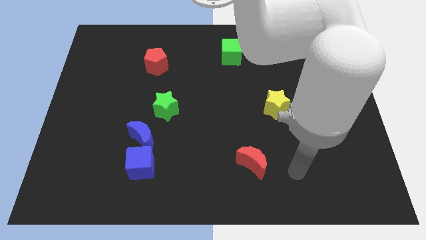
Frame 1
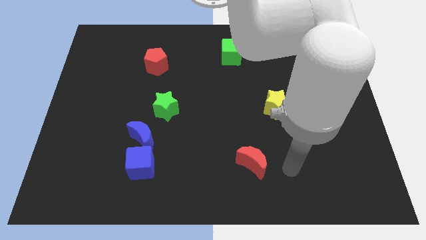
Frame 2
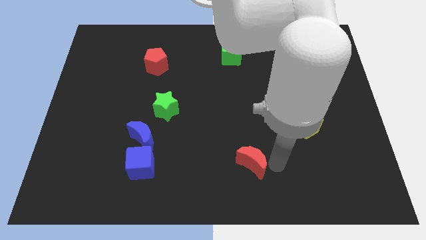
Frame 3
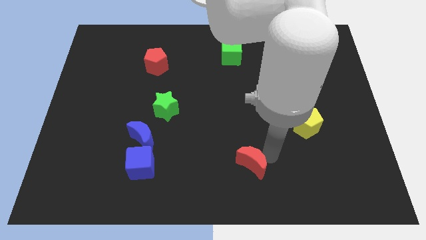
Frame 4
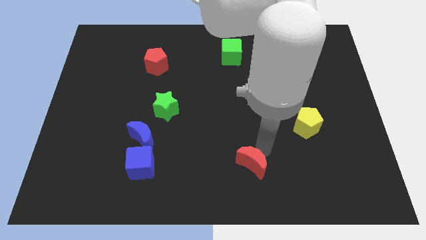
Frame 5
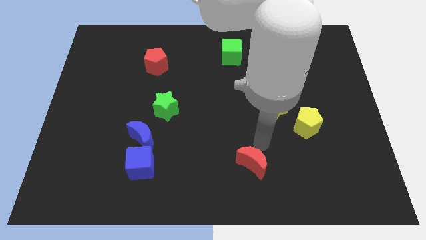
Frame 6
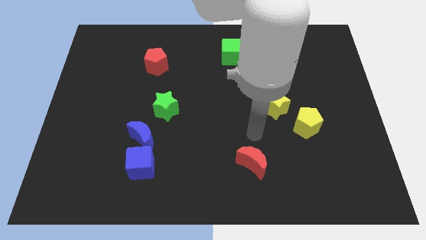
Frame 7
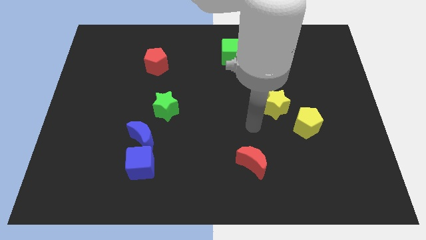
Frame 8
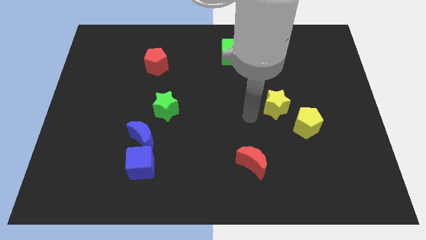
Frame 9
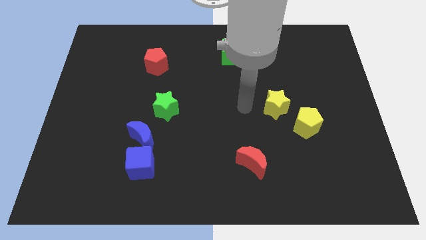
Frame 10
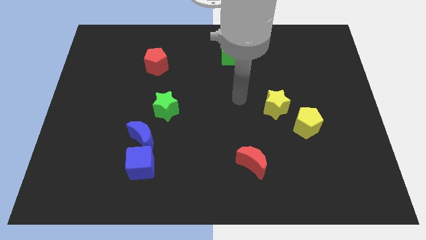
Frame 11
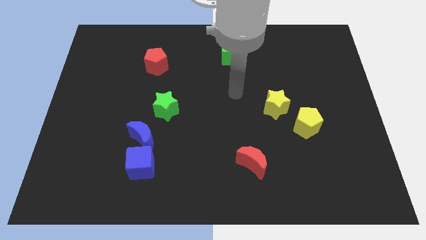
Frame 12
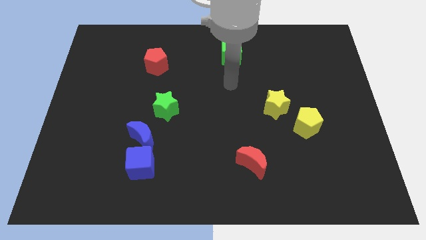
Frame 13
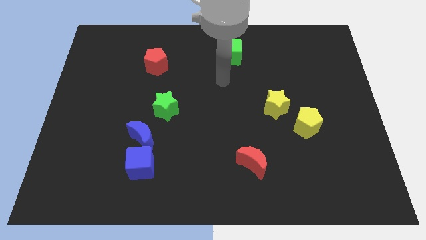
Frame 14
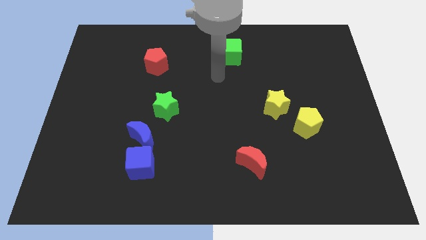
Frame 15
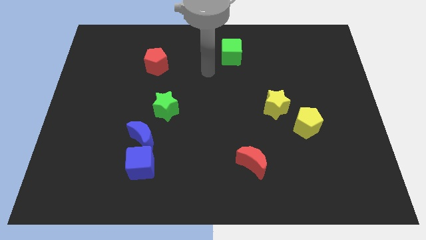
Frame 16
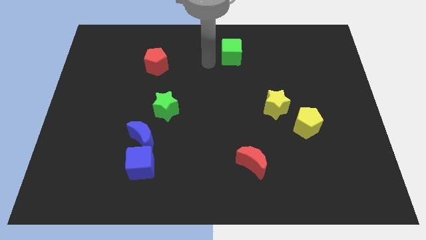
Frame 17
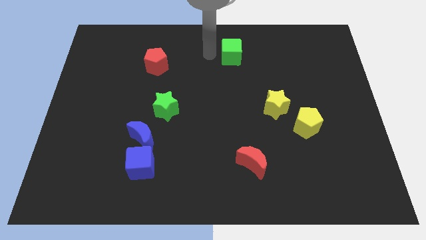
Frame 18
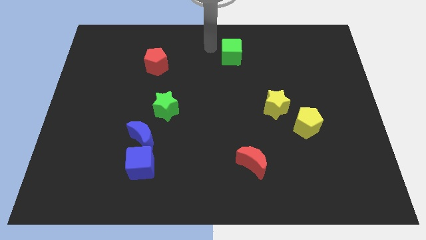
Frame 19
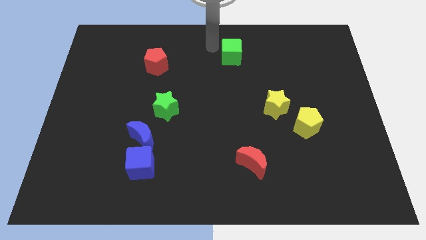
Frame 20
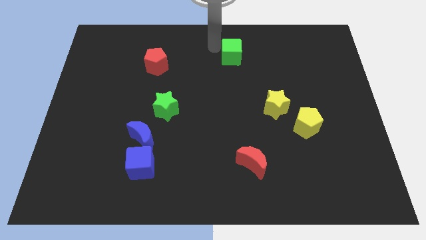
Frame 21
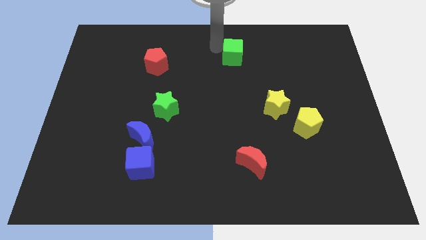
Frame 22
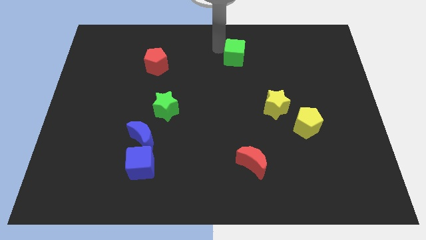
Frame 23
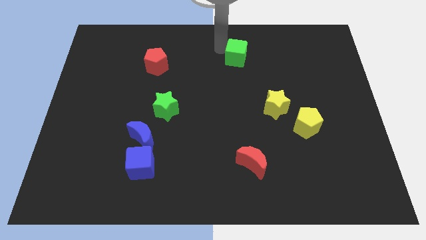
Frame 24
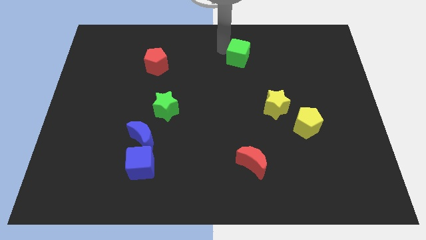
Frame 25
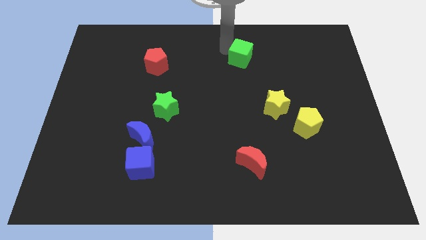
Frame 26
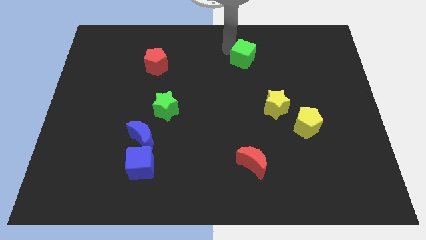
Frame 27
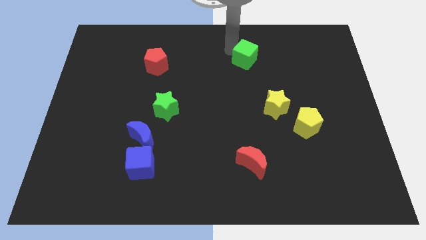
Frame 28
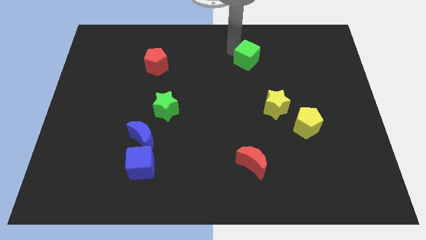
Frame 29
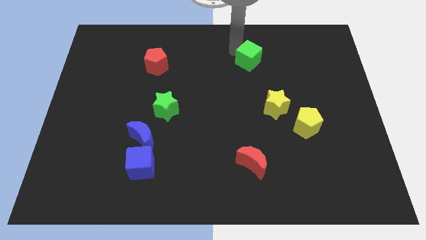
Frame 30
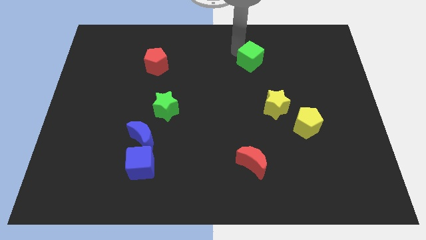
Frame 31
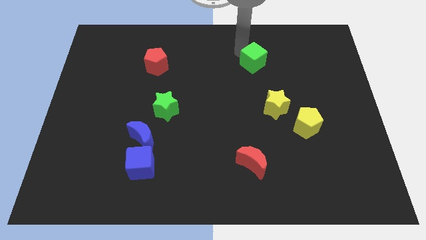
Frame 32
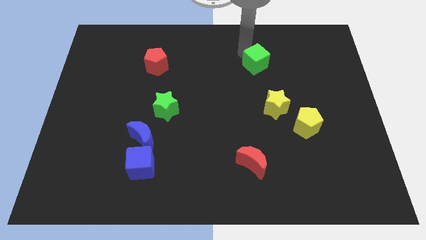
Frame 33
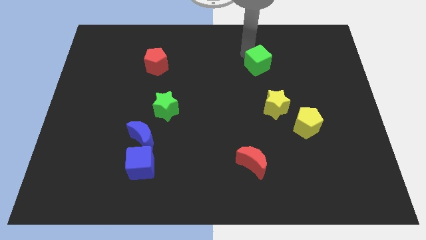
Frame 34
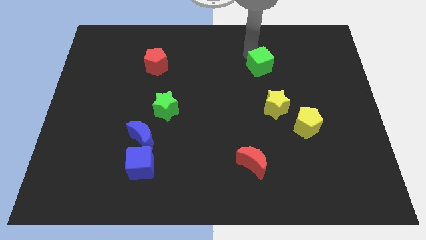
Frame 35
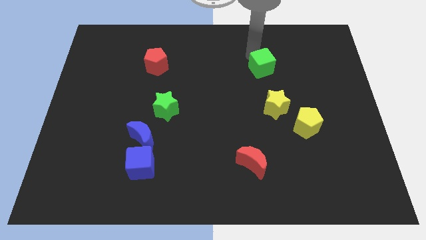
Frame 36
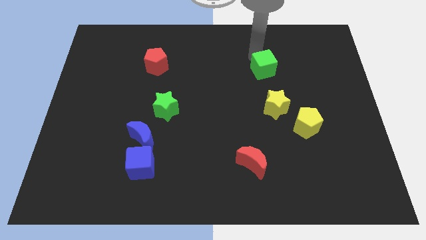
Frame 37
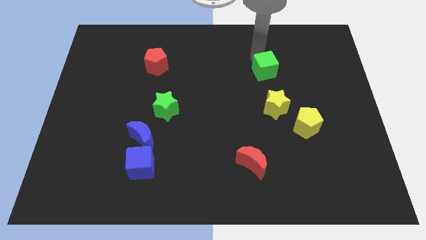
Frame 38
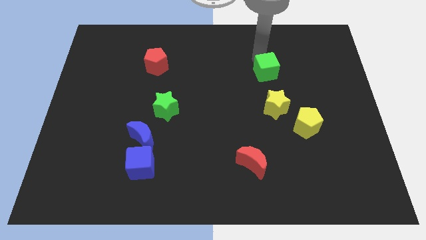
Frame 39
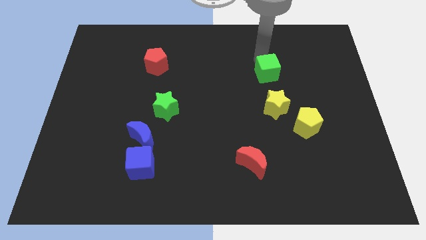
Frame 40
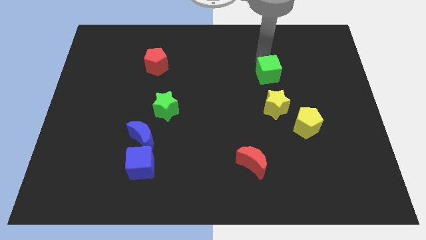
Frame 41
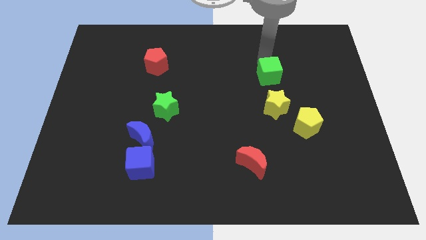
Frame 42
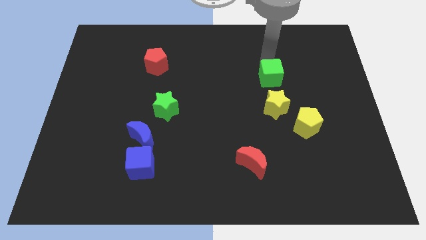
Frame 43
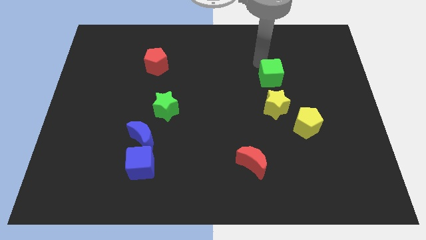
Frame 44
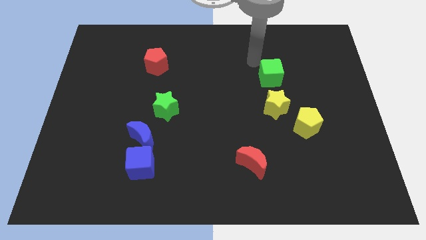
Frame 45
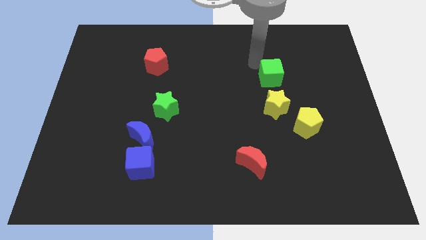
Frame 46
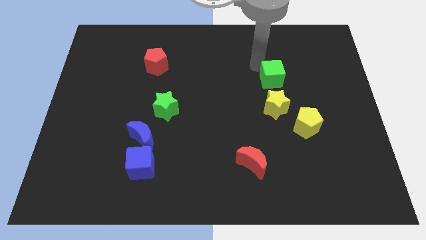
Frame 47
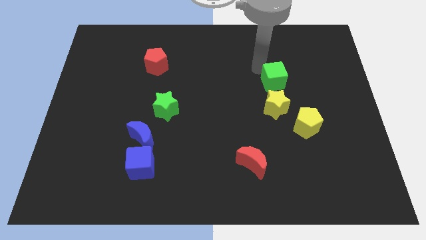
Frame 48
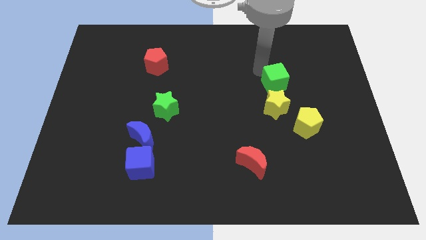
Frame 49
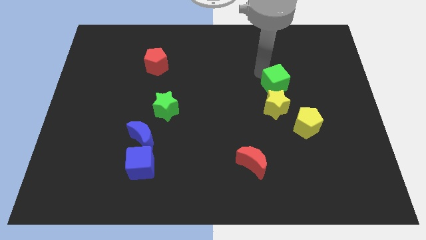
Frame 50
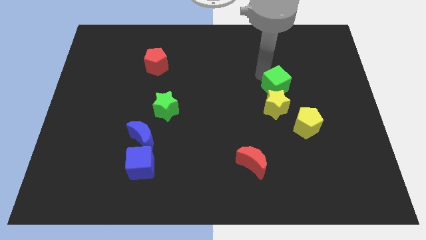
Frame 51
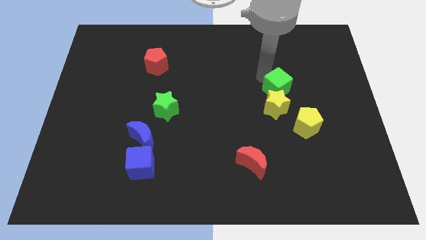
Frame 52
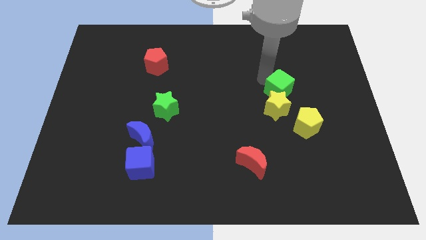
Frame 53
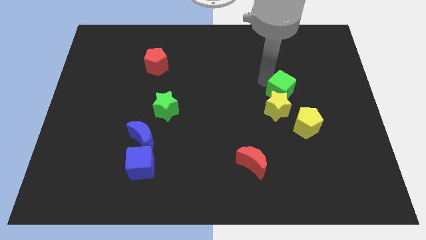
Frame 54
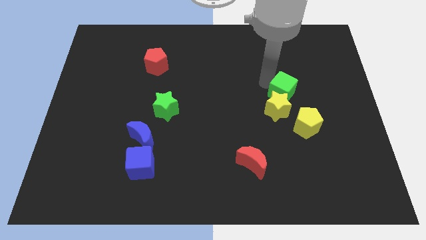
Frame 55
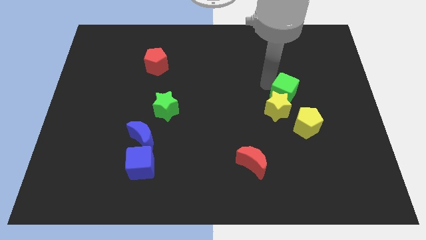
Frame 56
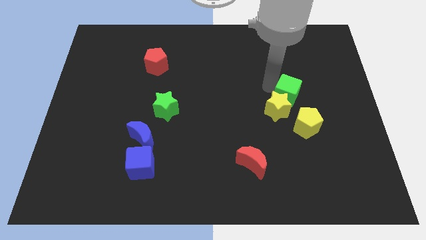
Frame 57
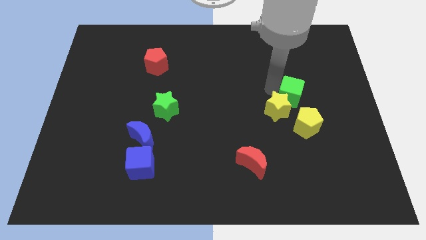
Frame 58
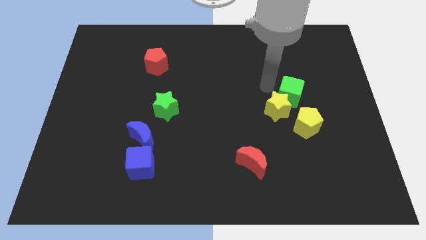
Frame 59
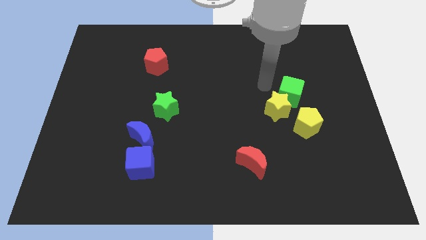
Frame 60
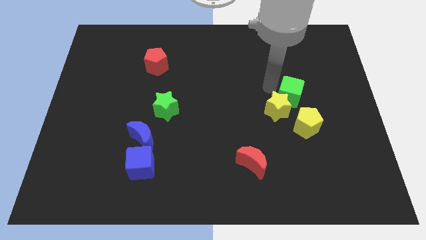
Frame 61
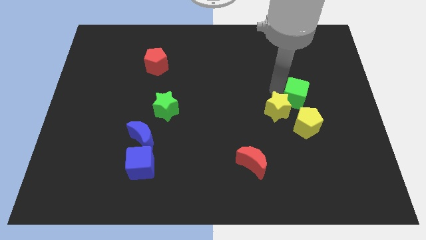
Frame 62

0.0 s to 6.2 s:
push the green cube downwards and to the right

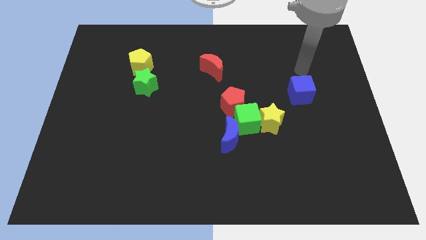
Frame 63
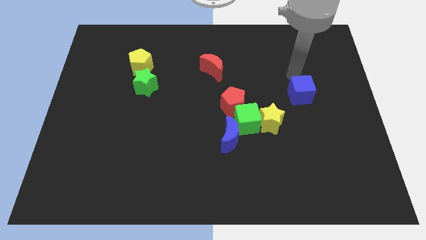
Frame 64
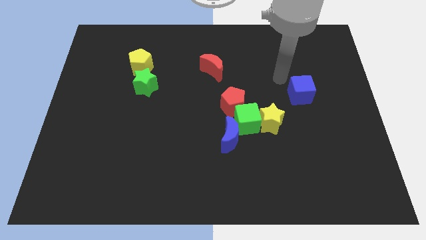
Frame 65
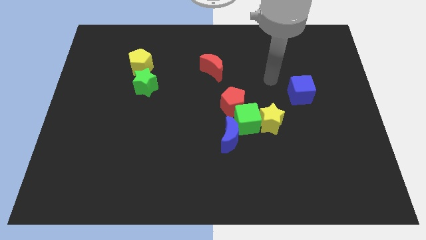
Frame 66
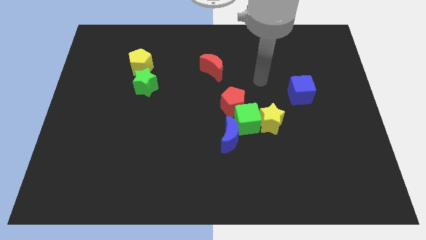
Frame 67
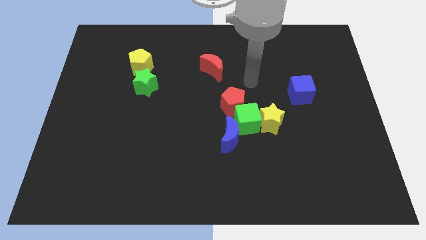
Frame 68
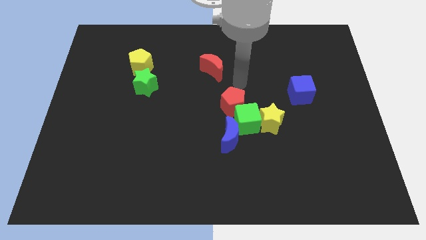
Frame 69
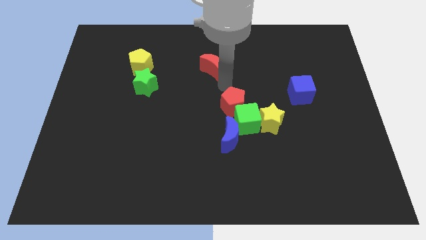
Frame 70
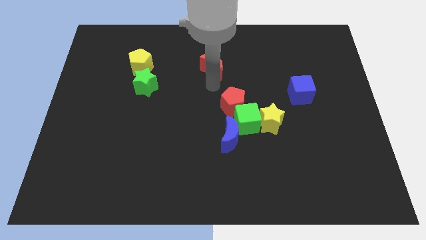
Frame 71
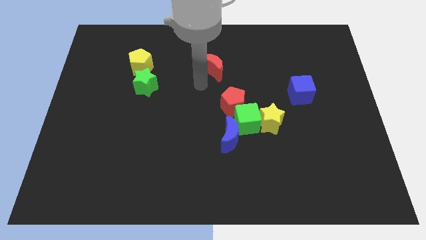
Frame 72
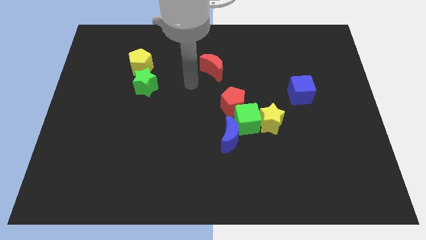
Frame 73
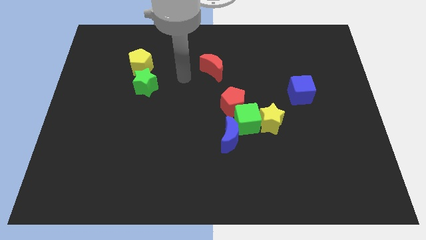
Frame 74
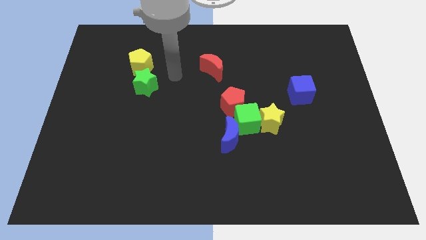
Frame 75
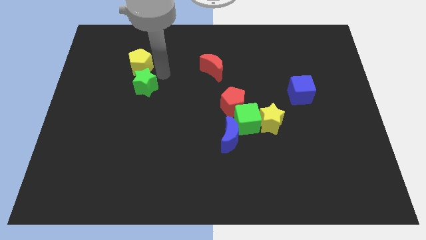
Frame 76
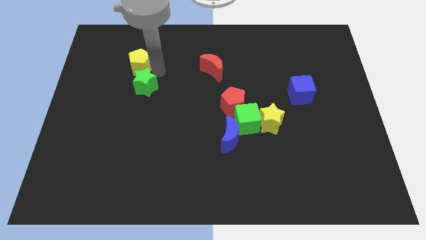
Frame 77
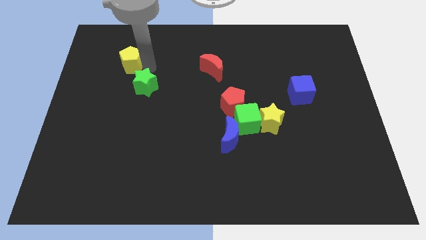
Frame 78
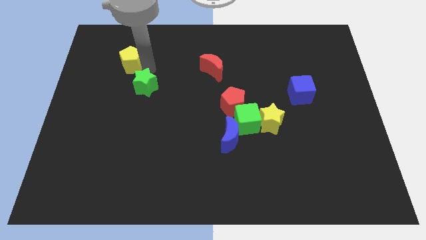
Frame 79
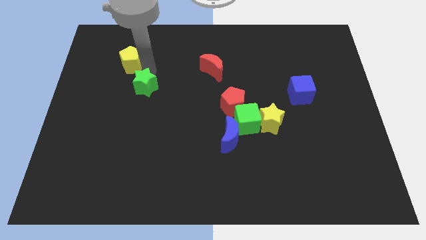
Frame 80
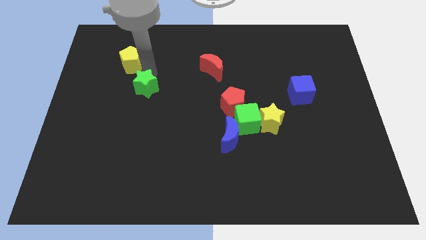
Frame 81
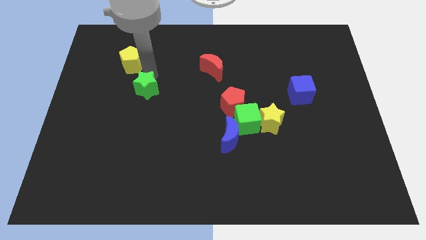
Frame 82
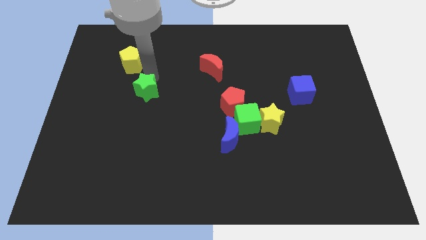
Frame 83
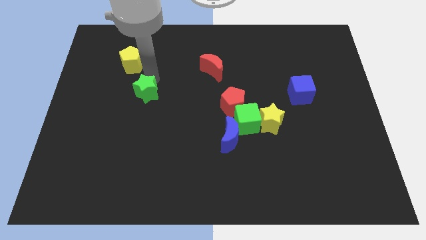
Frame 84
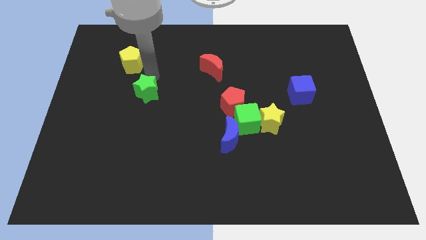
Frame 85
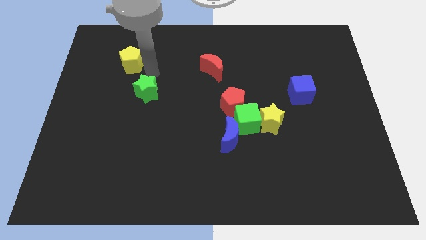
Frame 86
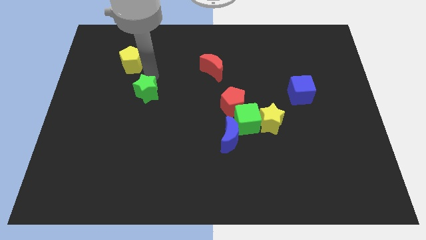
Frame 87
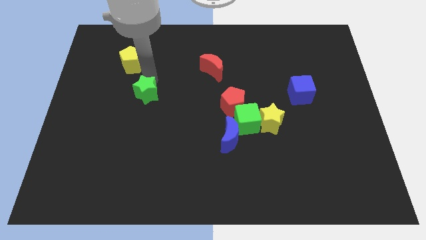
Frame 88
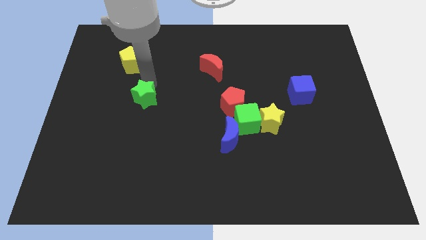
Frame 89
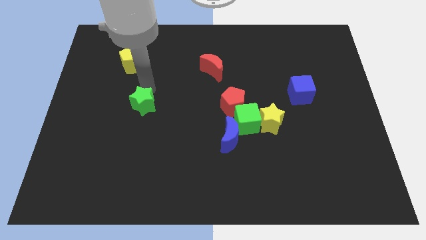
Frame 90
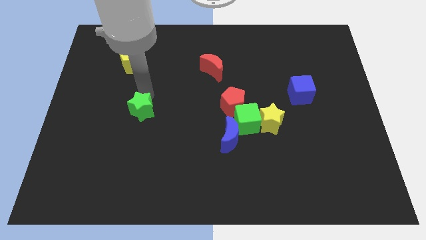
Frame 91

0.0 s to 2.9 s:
slightly move the green star down
